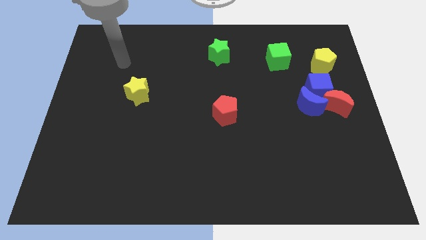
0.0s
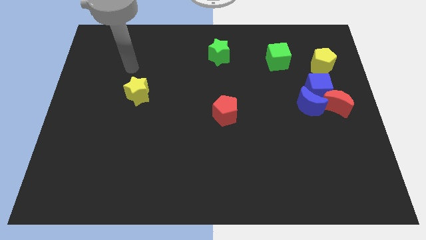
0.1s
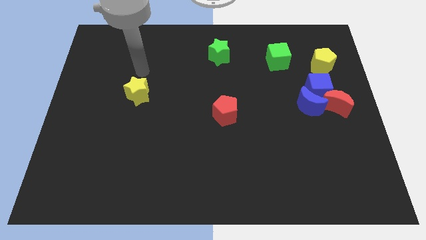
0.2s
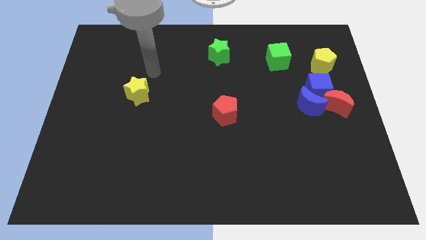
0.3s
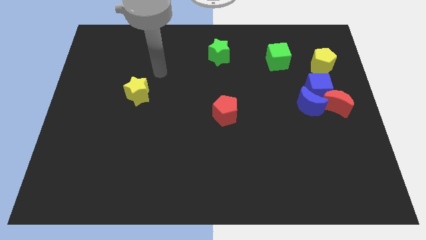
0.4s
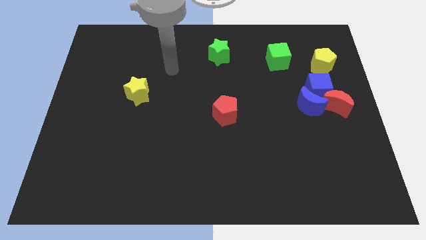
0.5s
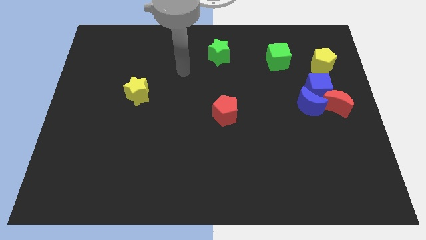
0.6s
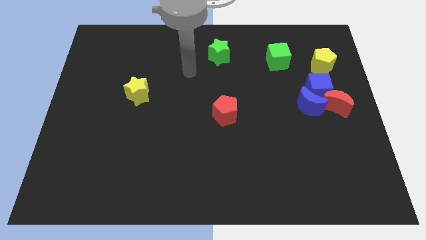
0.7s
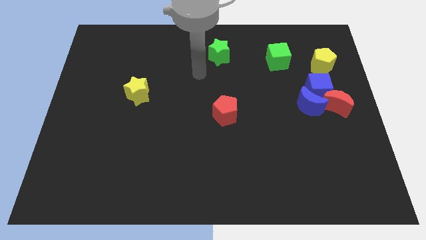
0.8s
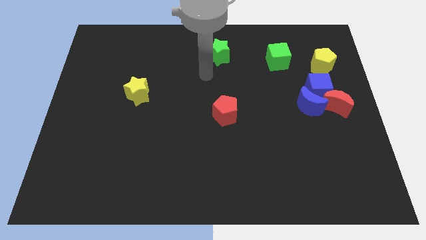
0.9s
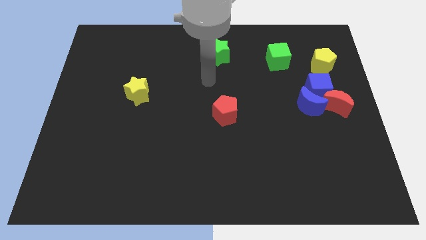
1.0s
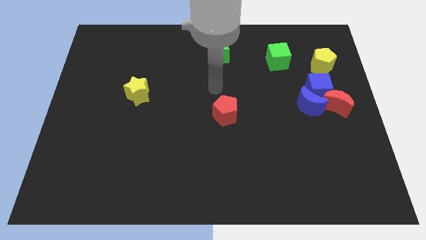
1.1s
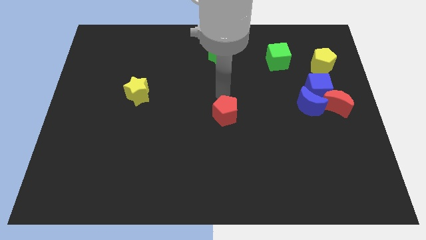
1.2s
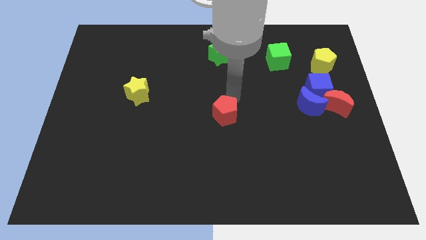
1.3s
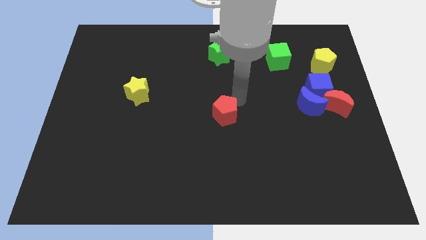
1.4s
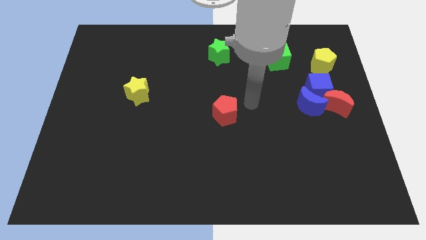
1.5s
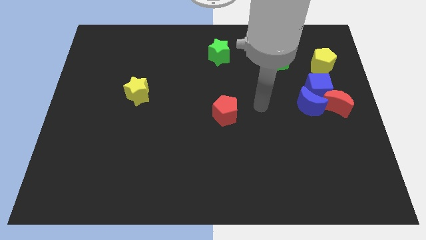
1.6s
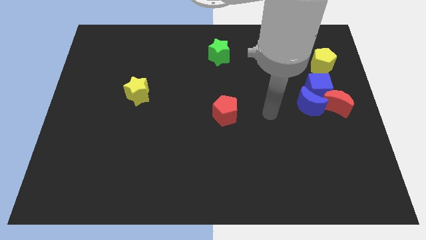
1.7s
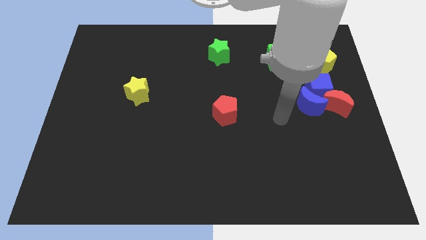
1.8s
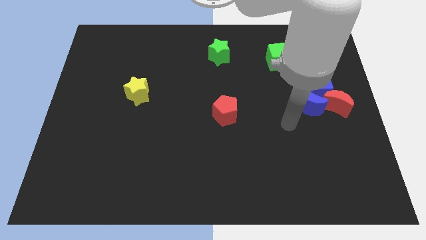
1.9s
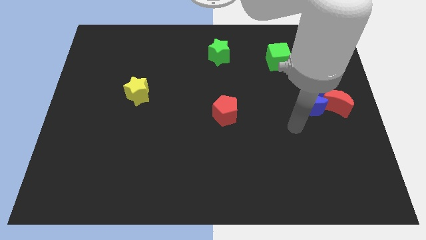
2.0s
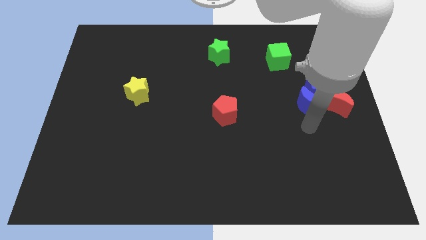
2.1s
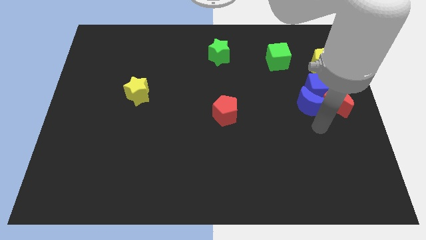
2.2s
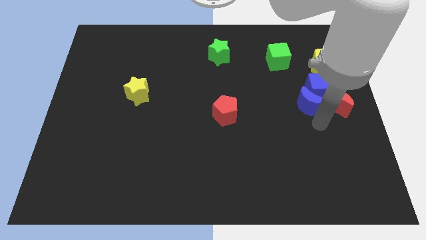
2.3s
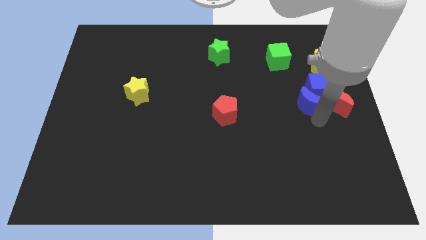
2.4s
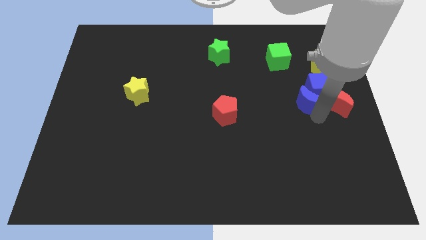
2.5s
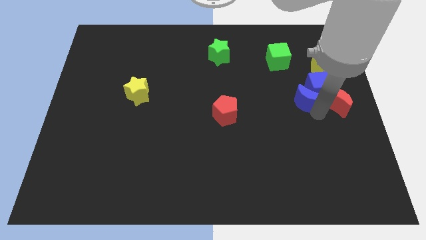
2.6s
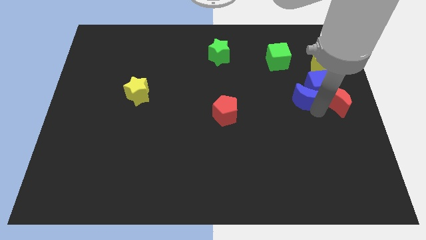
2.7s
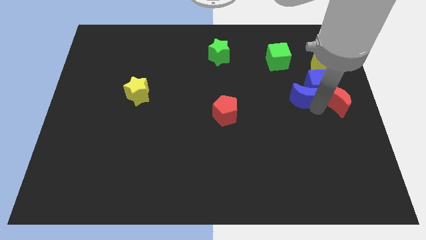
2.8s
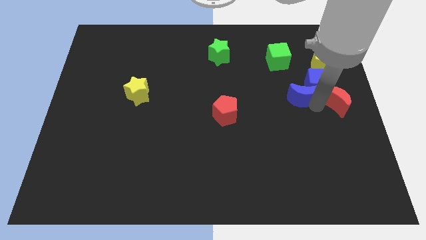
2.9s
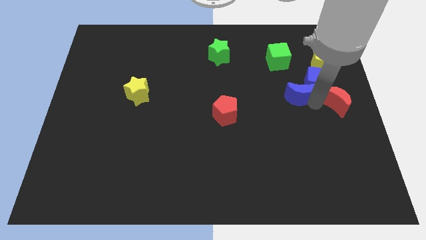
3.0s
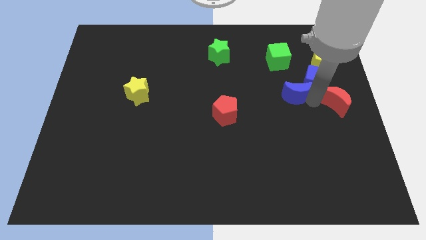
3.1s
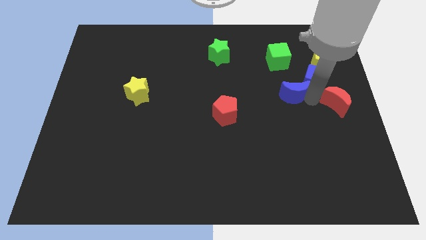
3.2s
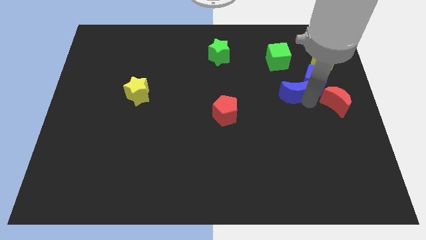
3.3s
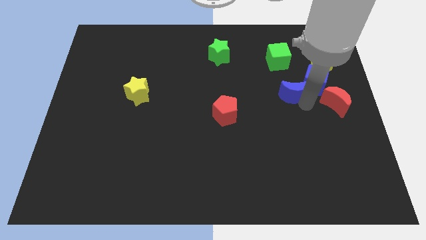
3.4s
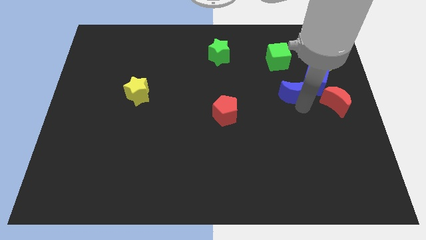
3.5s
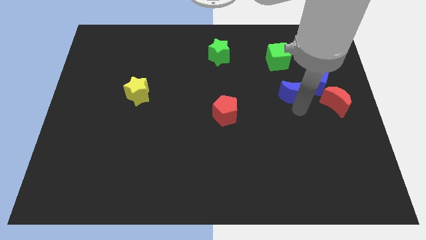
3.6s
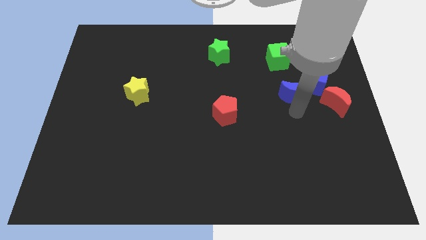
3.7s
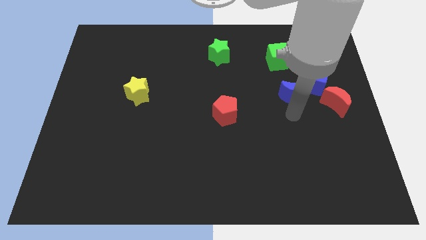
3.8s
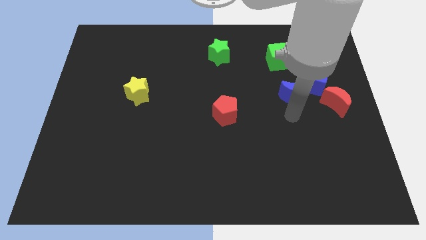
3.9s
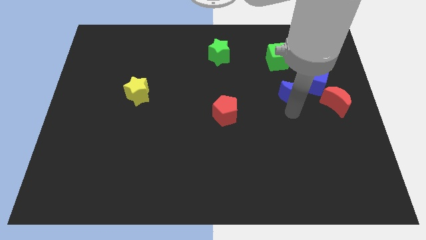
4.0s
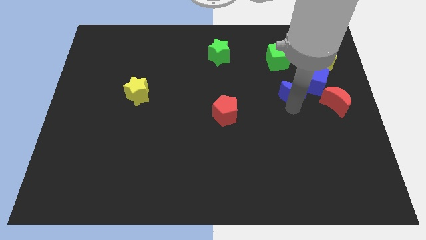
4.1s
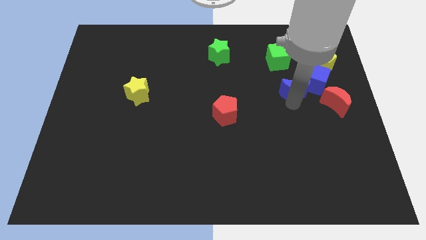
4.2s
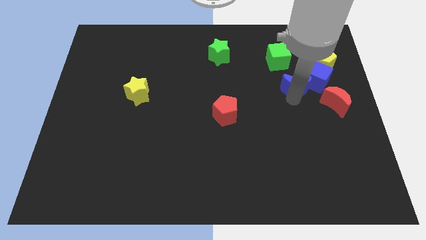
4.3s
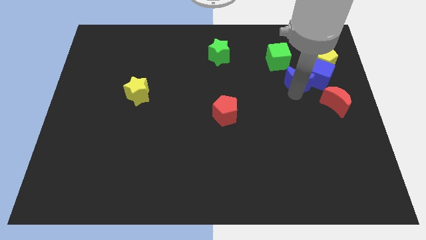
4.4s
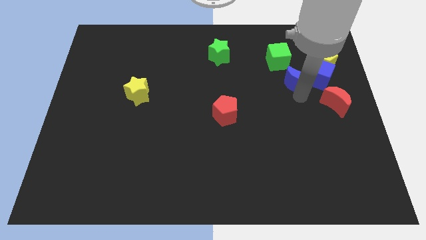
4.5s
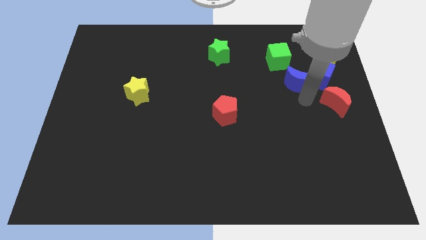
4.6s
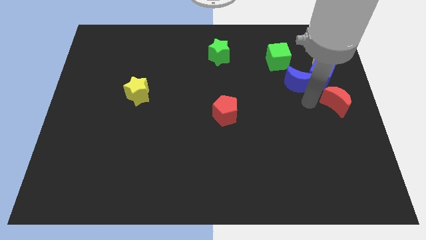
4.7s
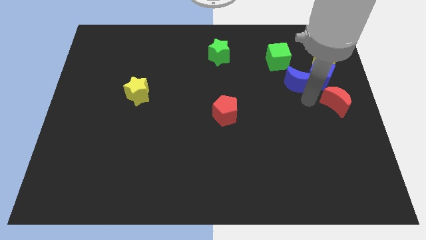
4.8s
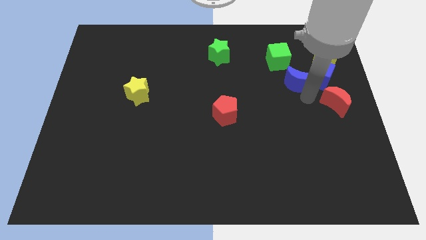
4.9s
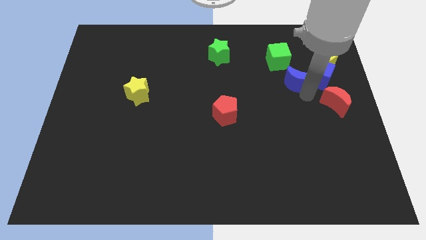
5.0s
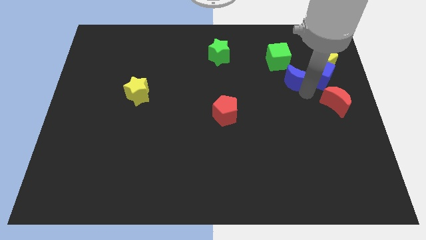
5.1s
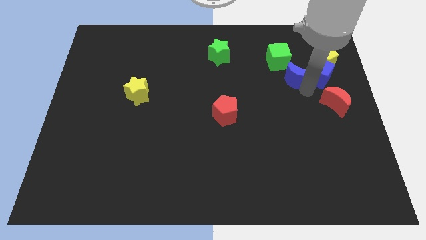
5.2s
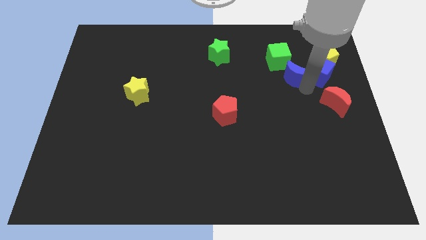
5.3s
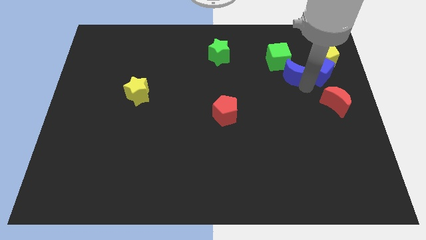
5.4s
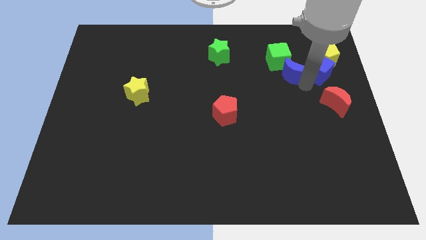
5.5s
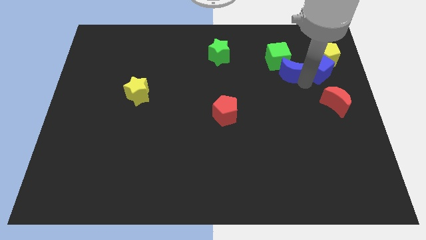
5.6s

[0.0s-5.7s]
put the blue moon to the green cube

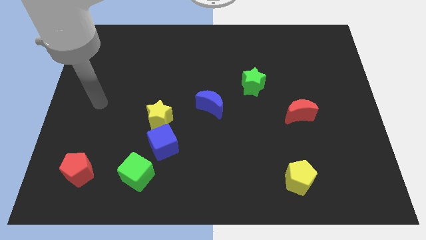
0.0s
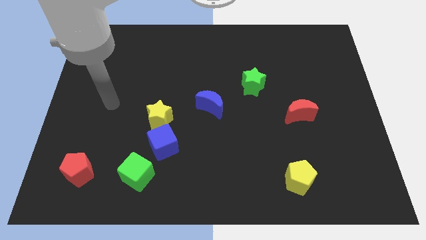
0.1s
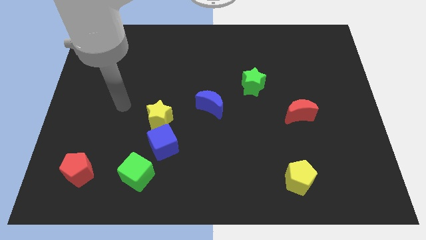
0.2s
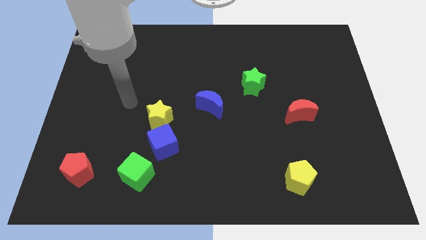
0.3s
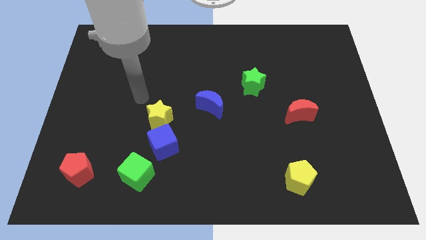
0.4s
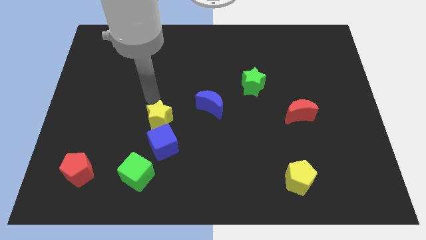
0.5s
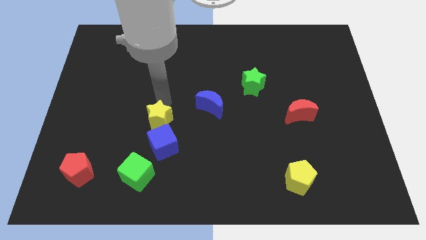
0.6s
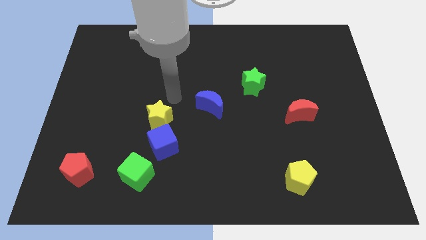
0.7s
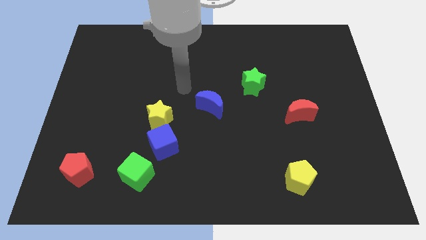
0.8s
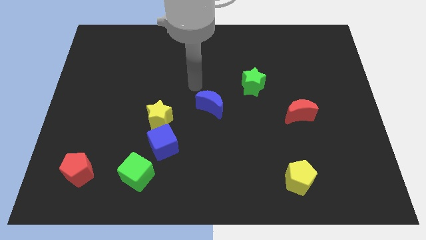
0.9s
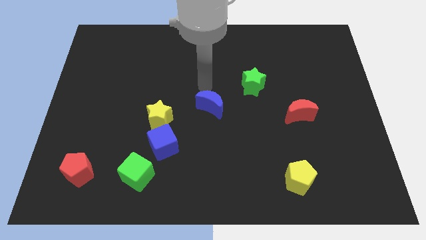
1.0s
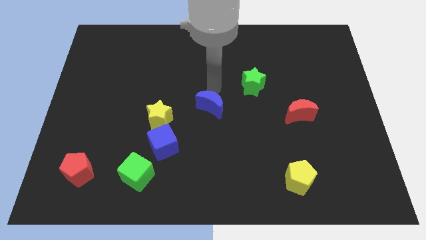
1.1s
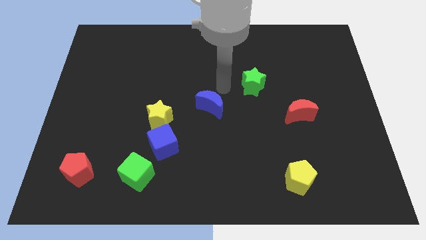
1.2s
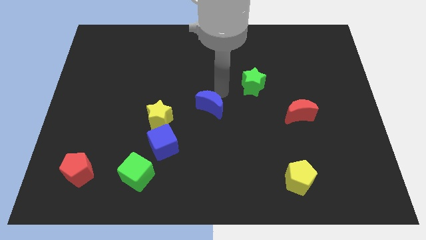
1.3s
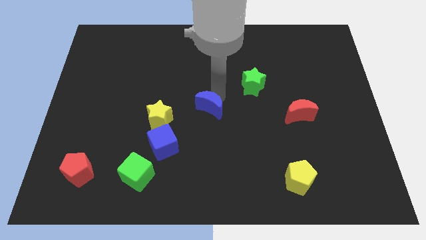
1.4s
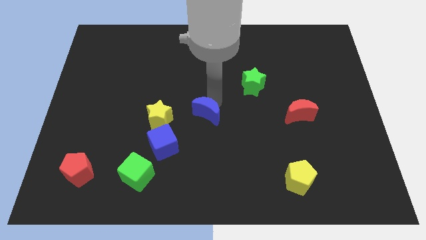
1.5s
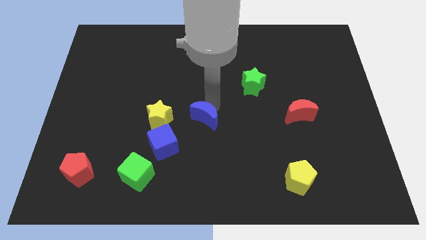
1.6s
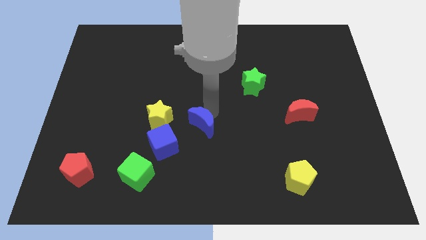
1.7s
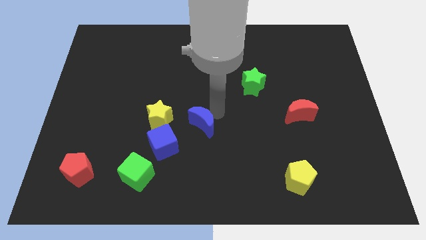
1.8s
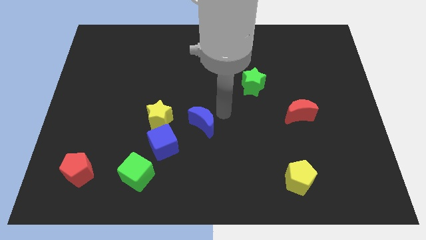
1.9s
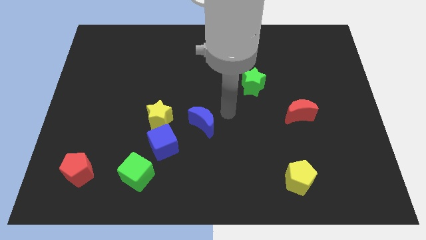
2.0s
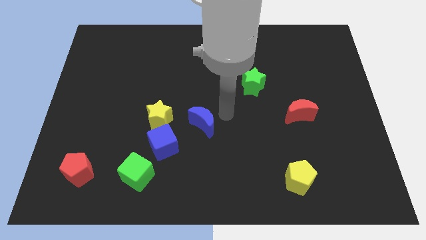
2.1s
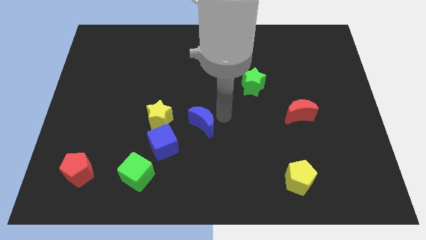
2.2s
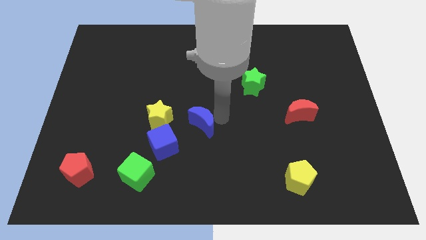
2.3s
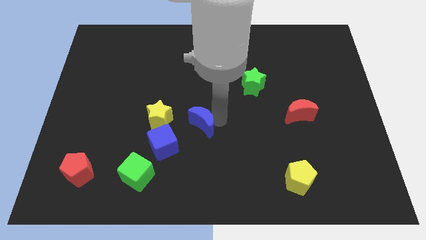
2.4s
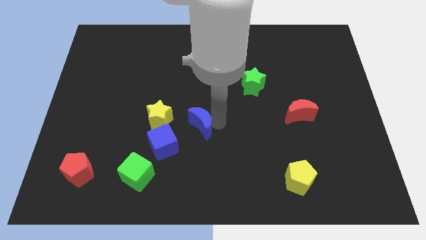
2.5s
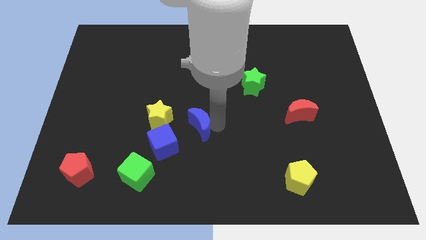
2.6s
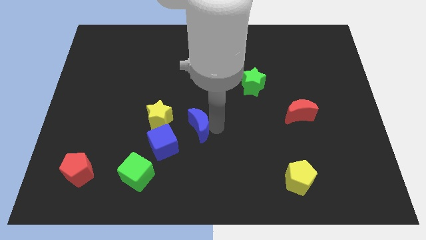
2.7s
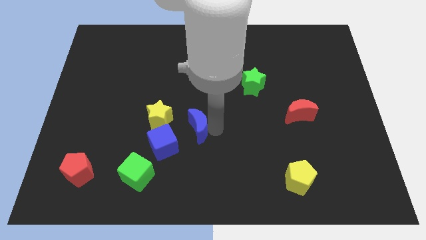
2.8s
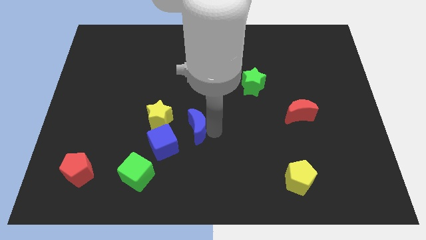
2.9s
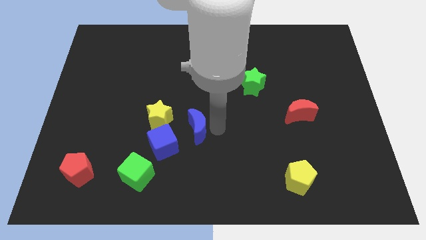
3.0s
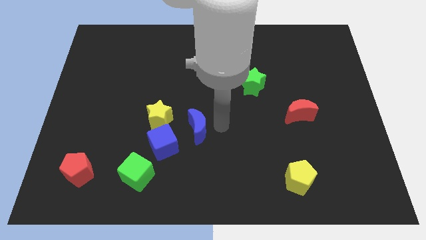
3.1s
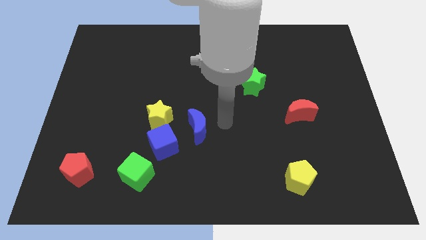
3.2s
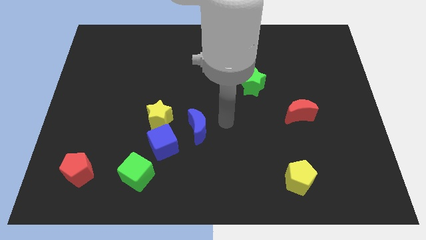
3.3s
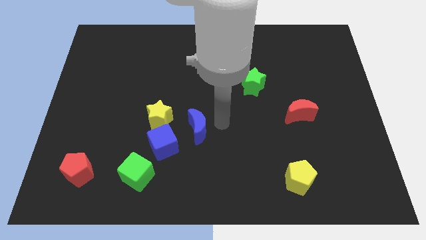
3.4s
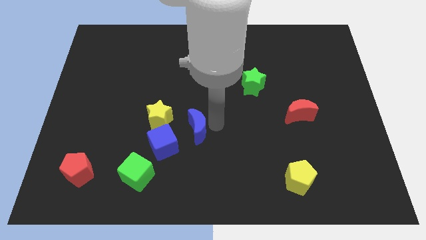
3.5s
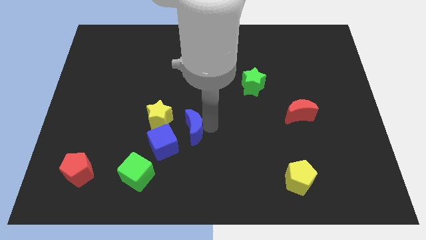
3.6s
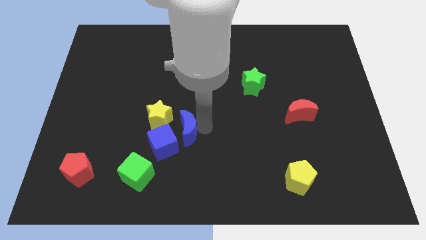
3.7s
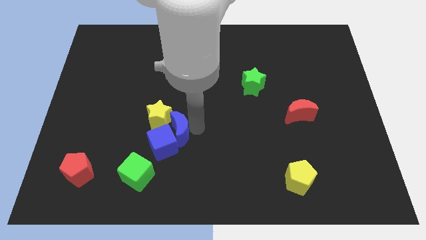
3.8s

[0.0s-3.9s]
move the blue moon to the blue cube
